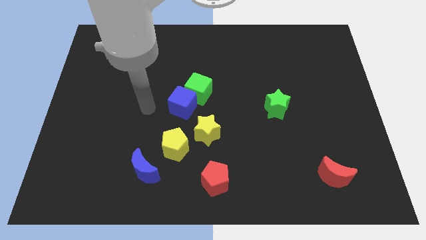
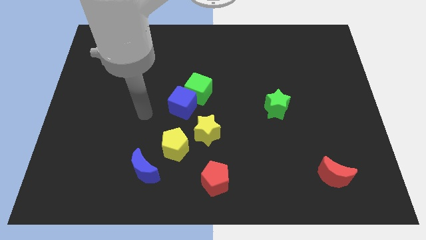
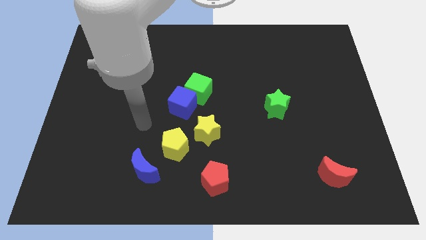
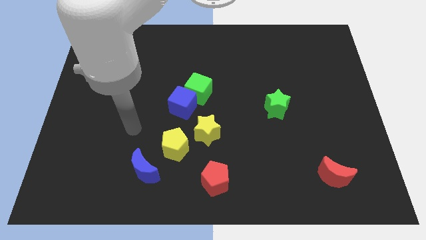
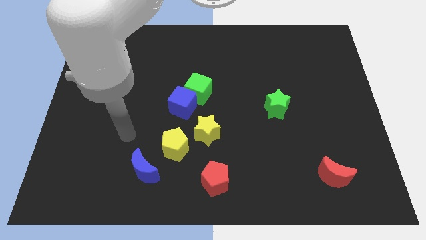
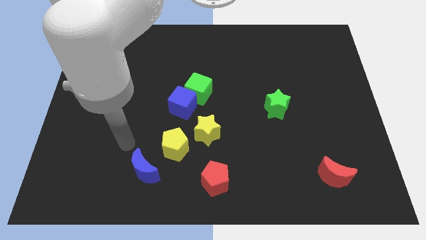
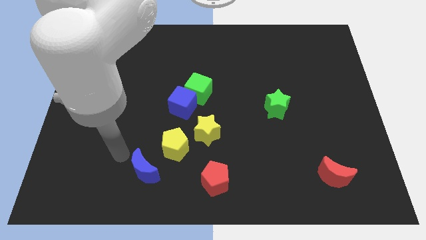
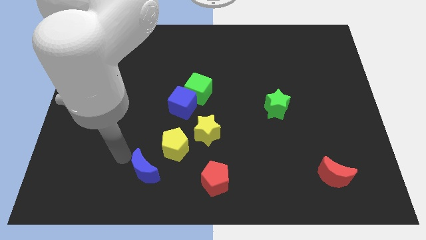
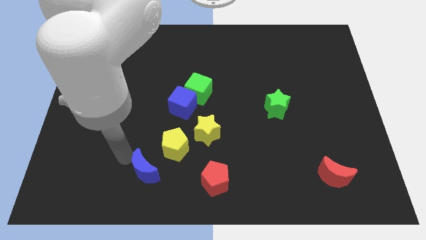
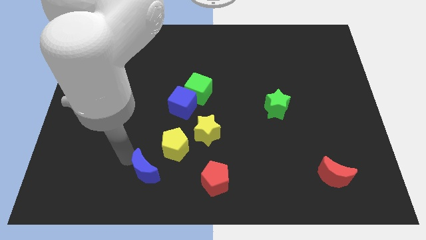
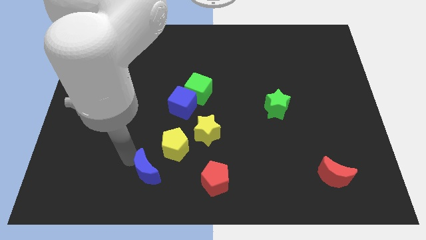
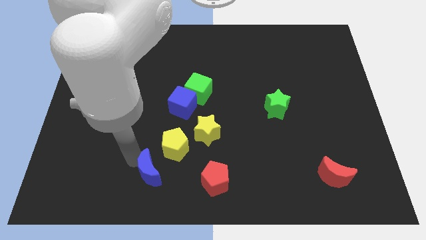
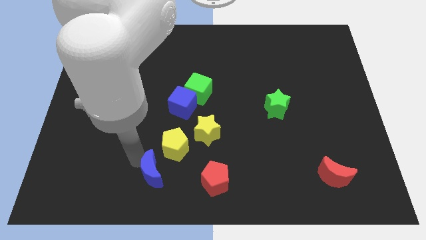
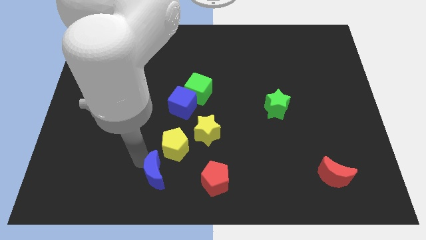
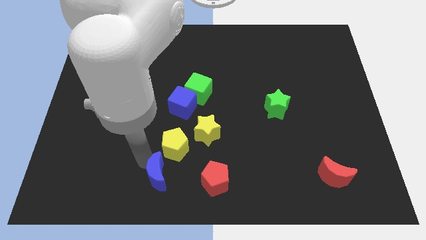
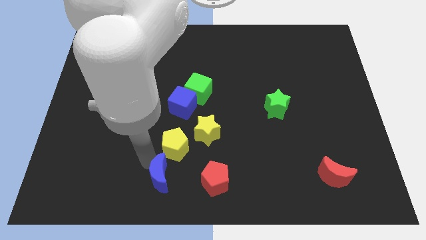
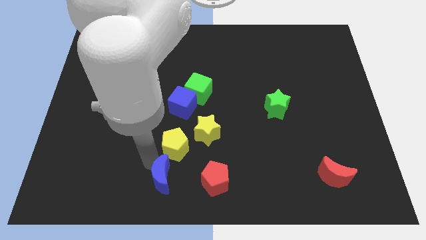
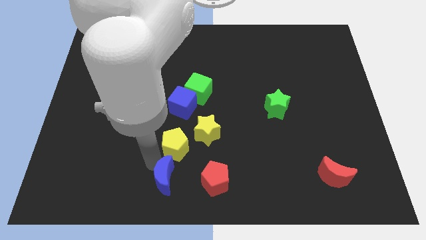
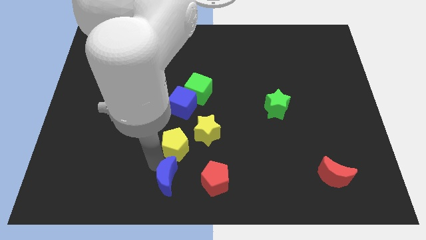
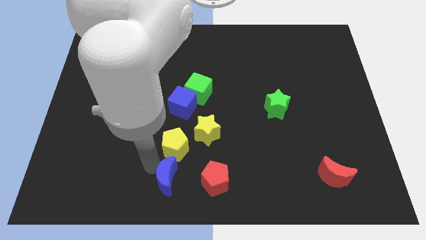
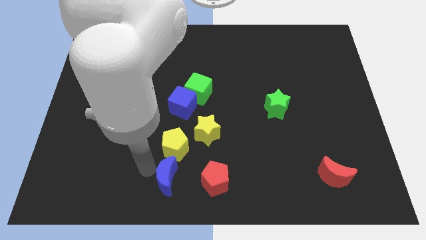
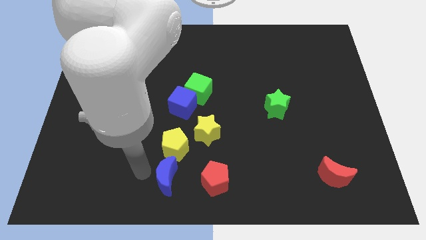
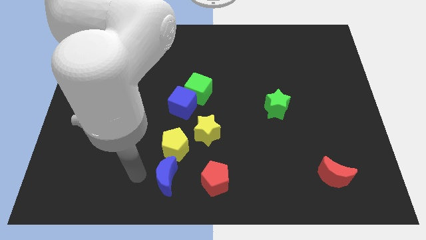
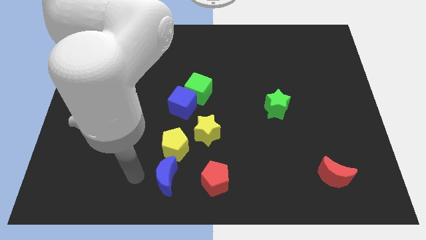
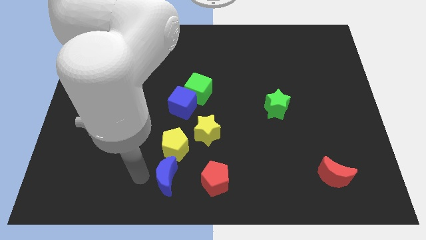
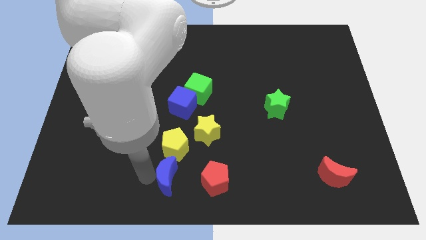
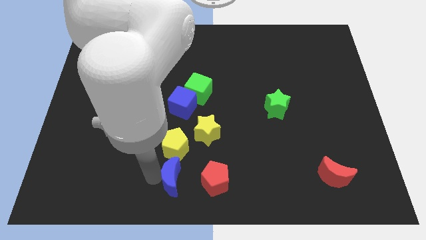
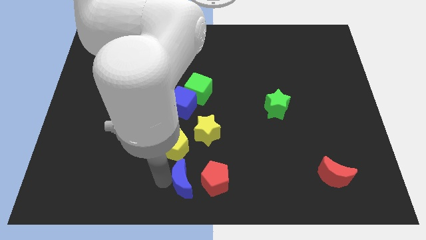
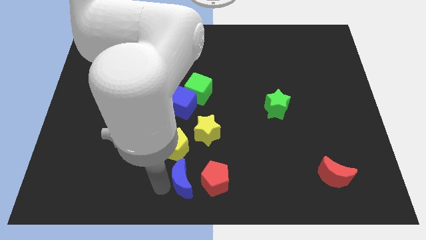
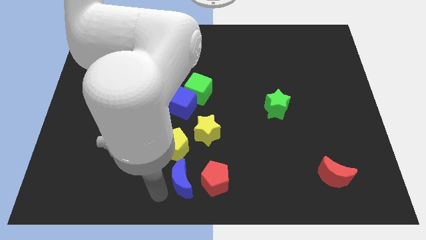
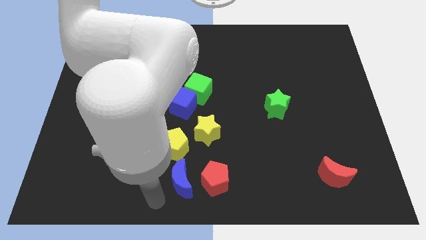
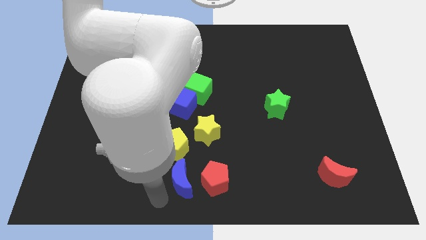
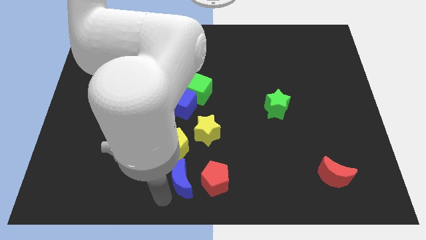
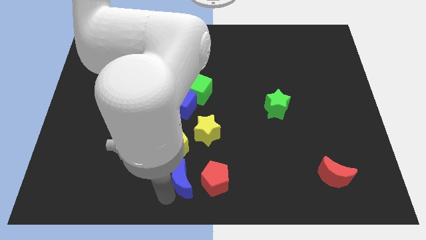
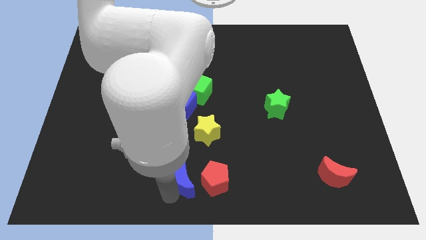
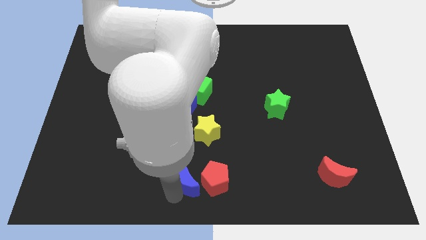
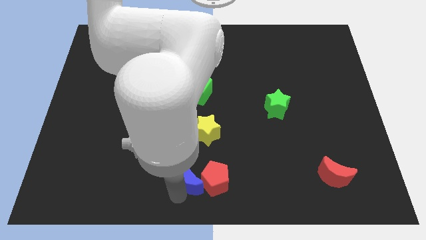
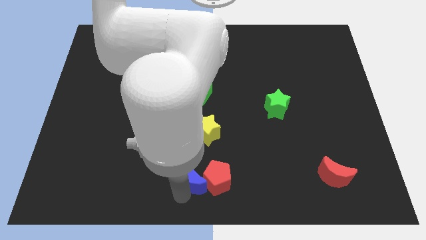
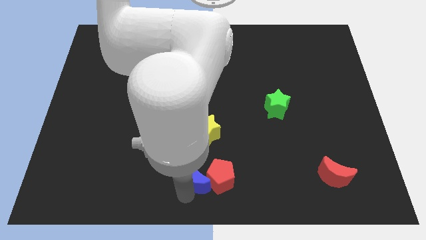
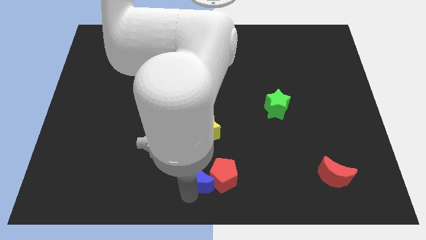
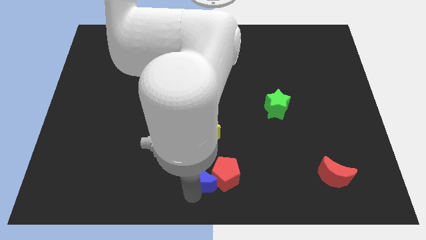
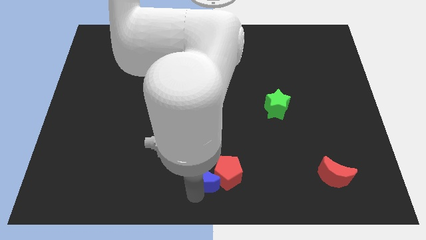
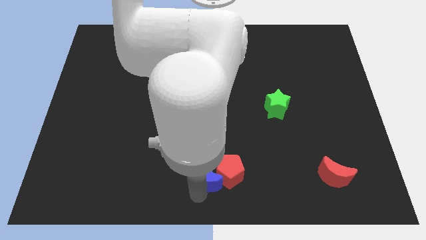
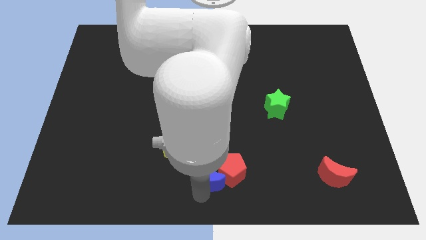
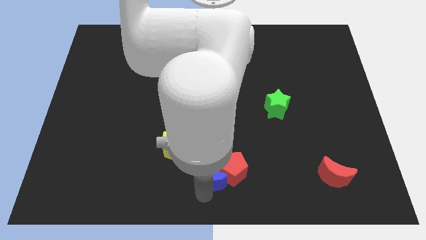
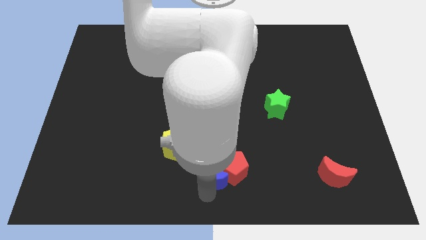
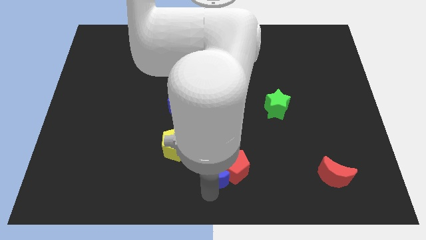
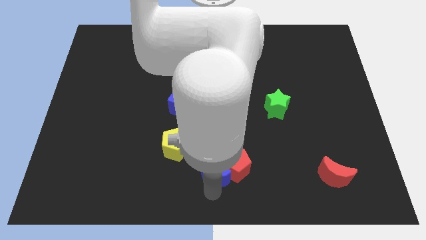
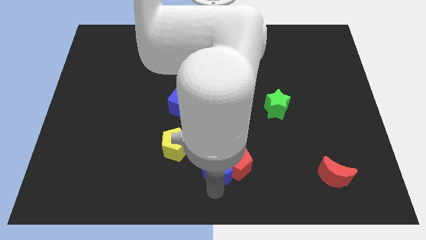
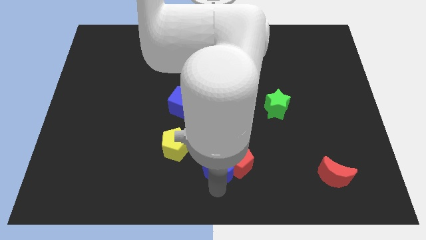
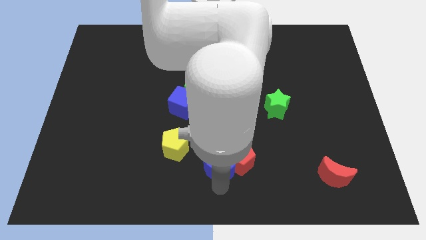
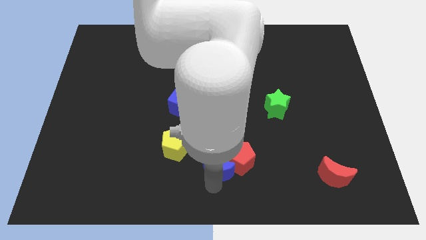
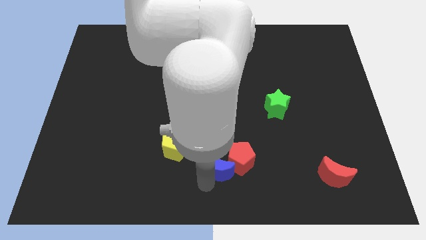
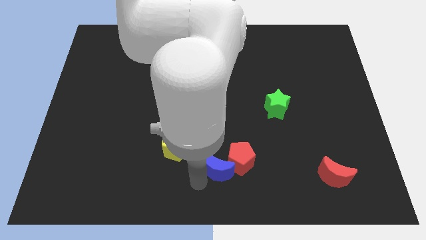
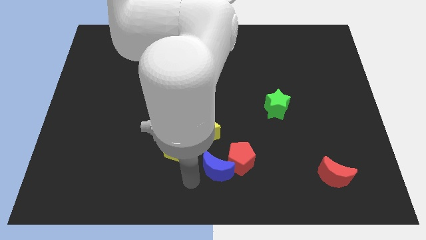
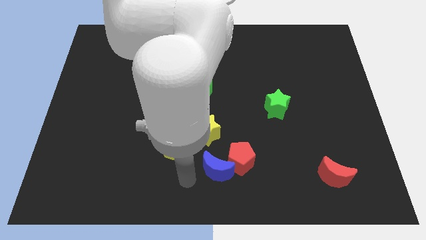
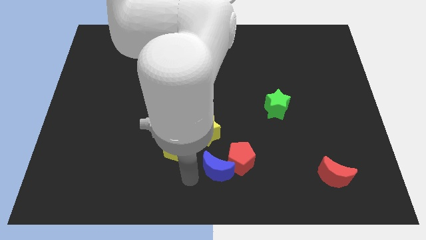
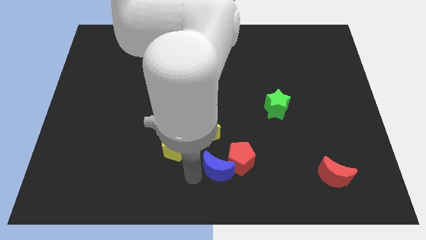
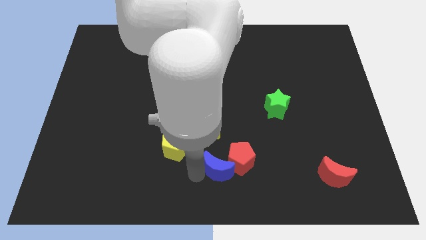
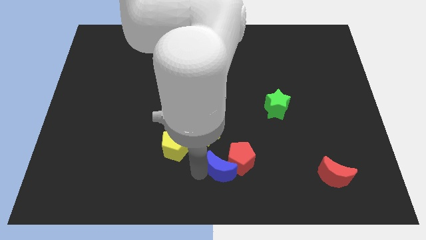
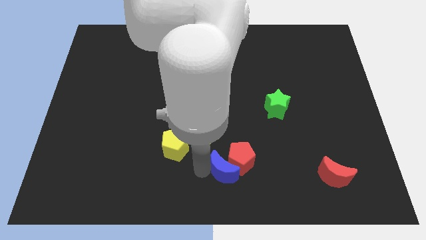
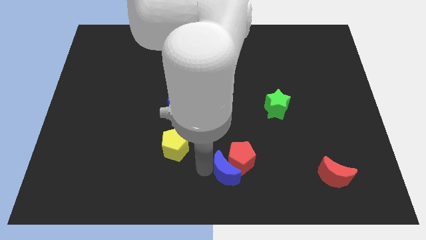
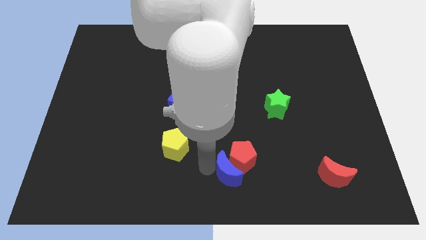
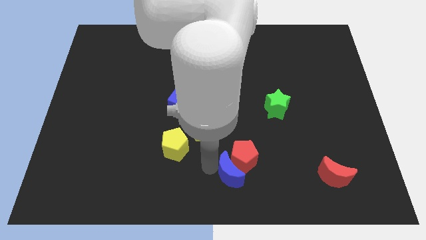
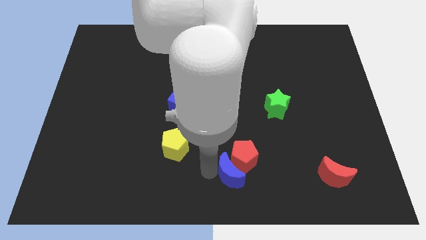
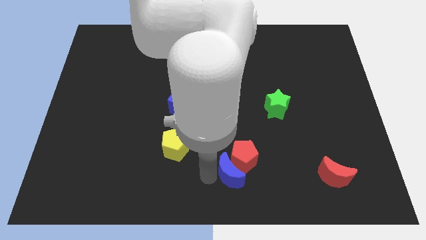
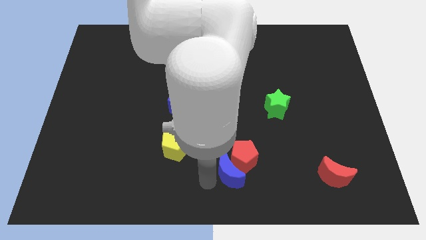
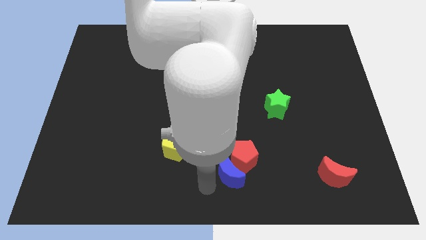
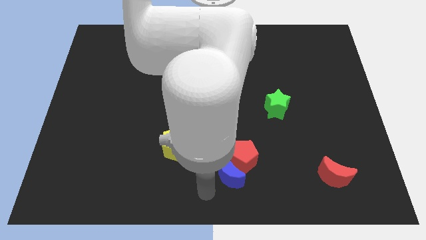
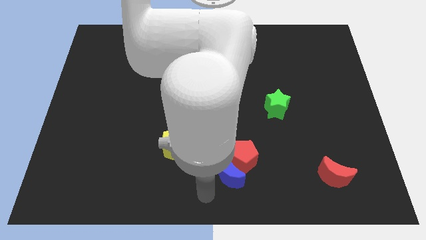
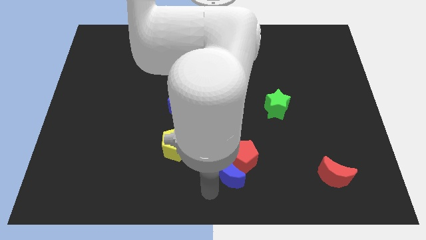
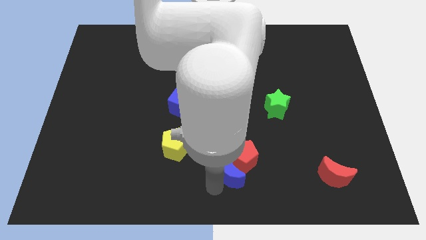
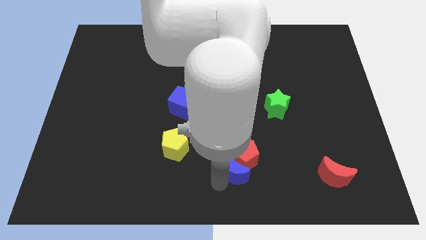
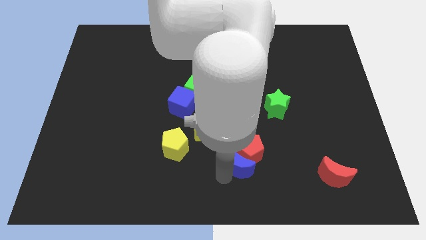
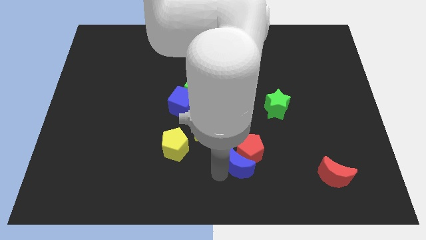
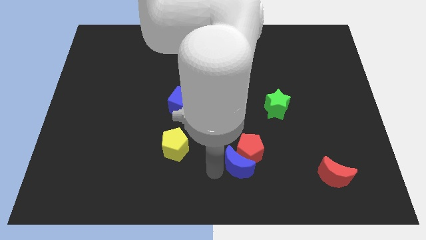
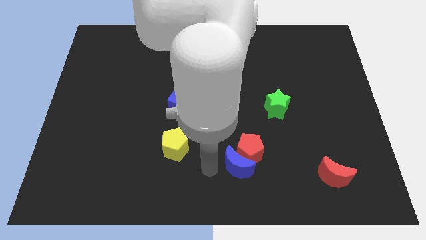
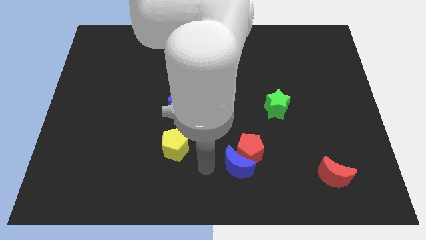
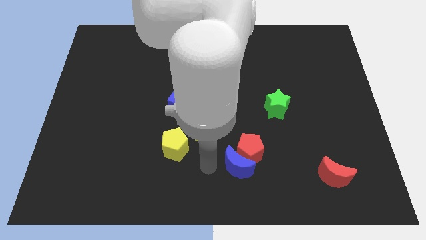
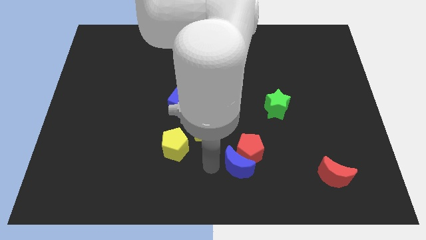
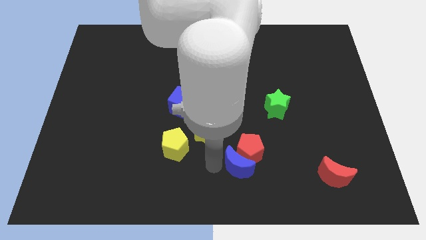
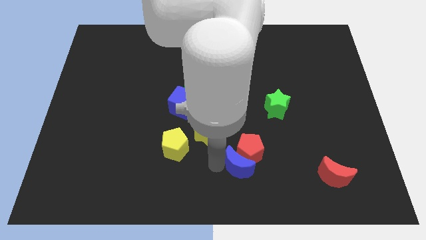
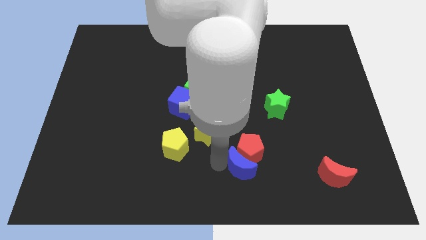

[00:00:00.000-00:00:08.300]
slide the blue moon to the right
